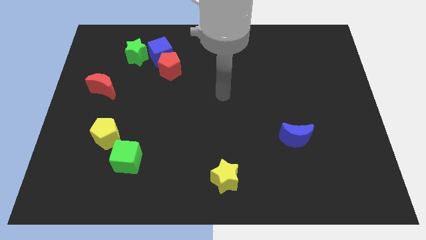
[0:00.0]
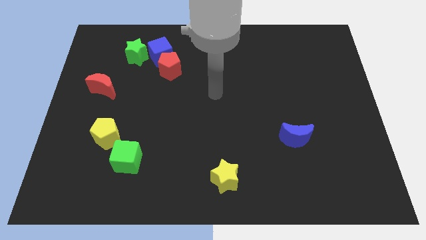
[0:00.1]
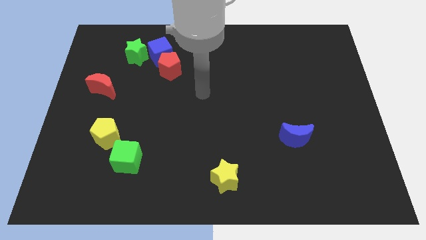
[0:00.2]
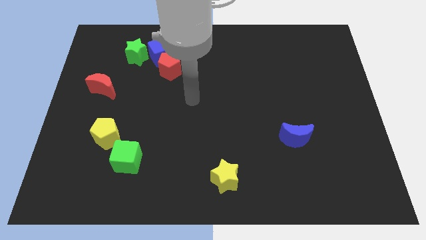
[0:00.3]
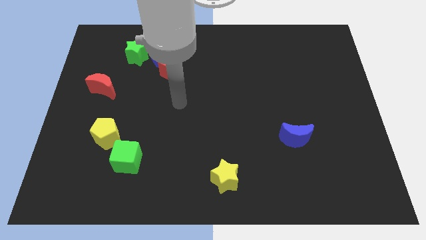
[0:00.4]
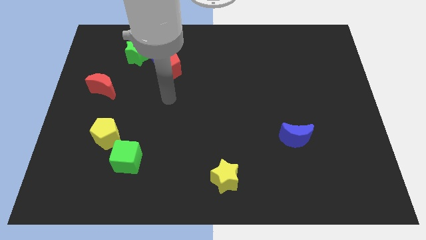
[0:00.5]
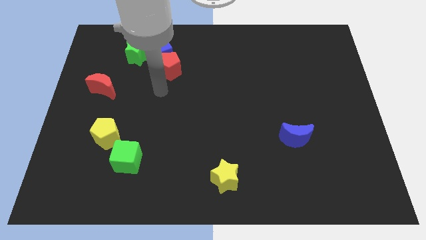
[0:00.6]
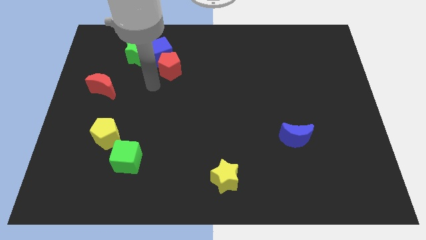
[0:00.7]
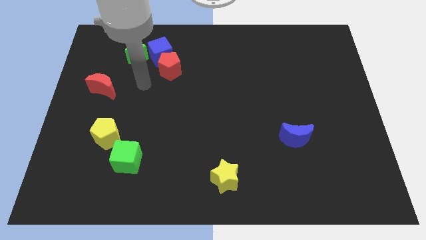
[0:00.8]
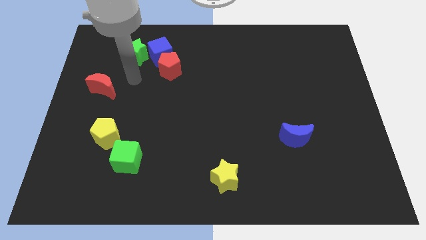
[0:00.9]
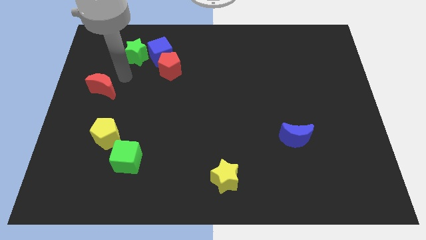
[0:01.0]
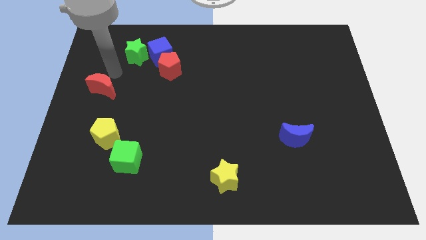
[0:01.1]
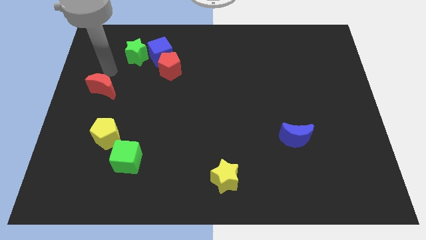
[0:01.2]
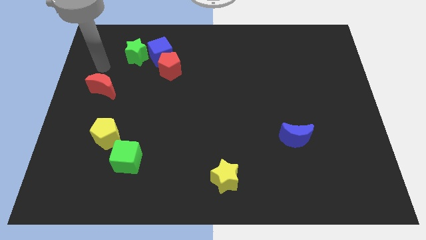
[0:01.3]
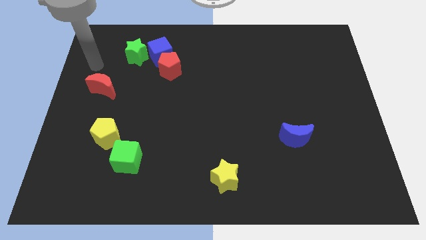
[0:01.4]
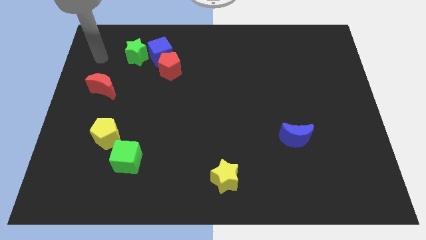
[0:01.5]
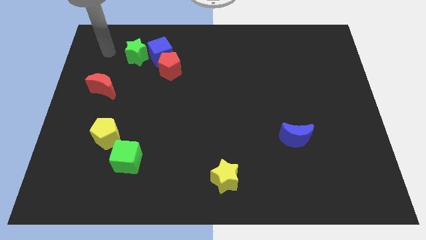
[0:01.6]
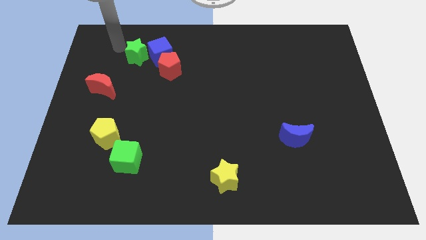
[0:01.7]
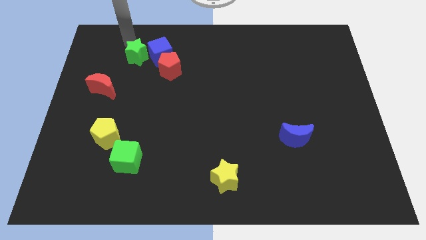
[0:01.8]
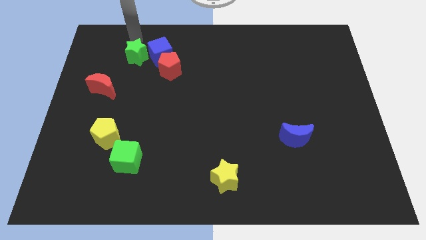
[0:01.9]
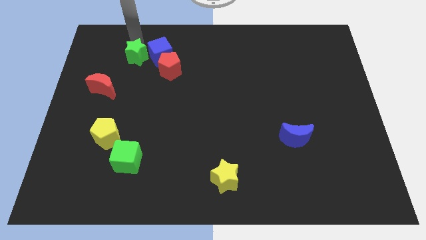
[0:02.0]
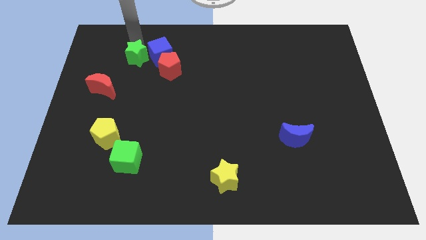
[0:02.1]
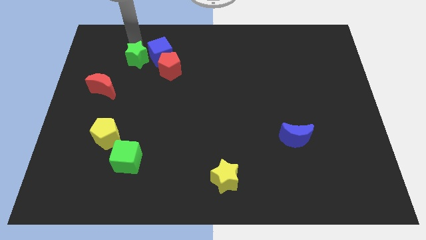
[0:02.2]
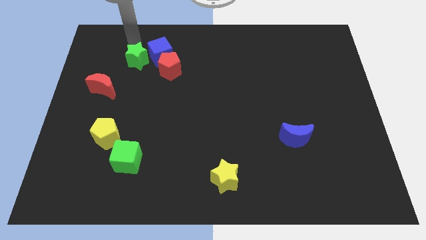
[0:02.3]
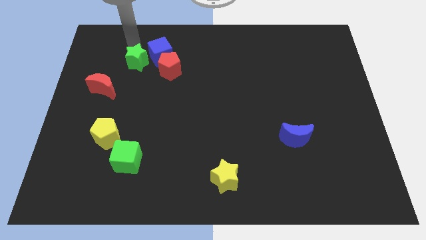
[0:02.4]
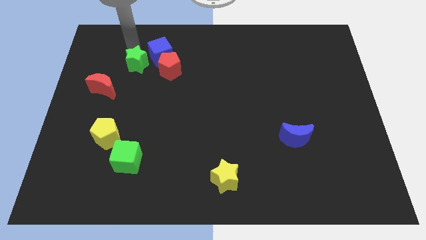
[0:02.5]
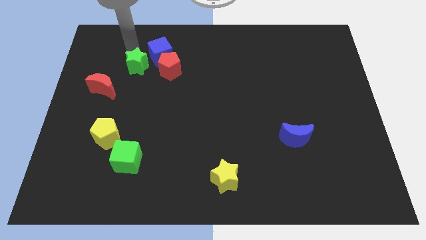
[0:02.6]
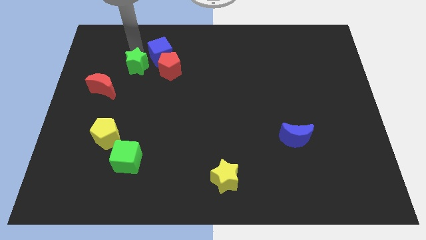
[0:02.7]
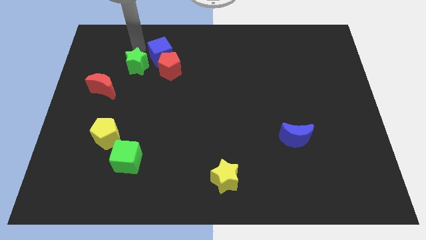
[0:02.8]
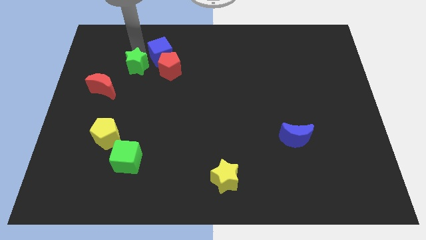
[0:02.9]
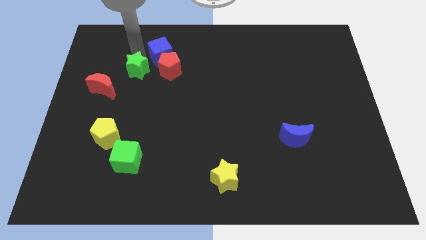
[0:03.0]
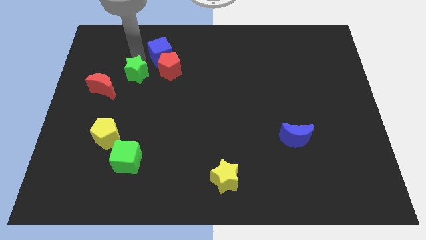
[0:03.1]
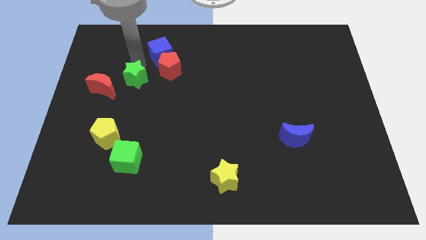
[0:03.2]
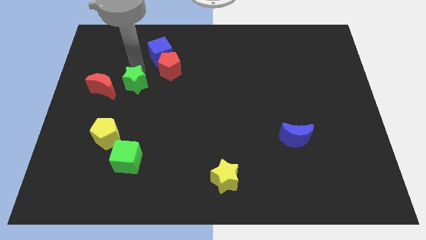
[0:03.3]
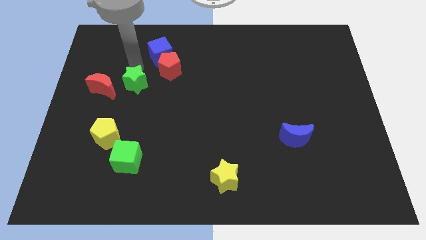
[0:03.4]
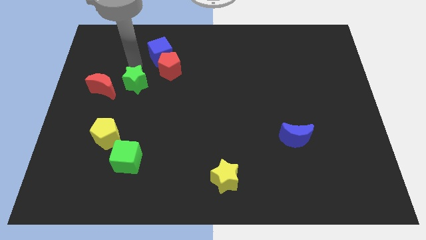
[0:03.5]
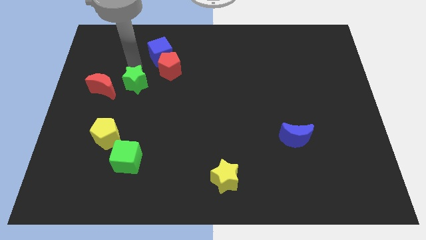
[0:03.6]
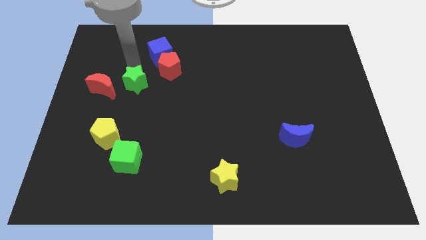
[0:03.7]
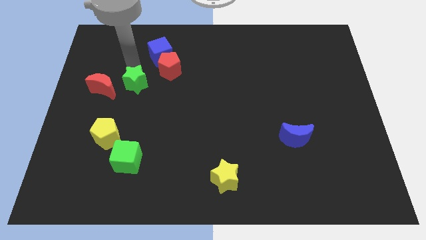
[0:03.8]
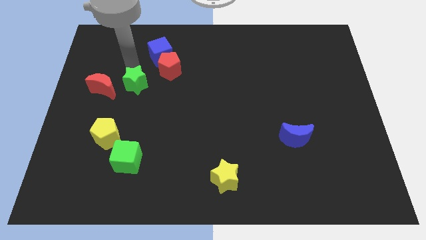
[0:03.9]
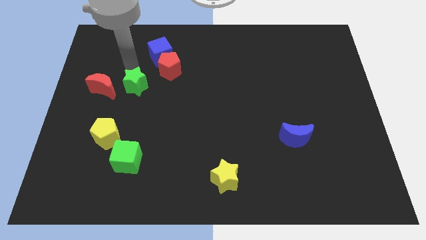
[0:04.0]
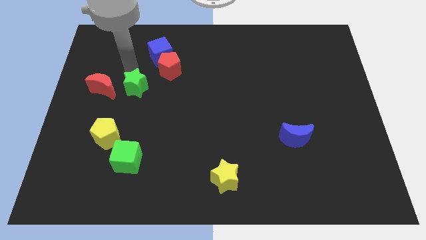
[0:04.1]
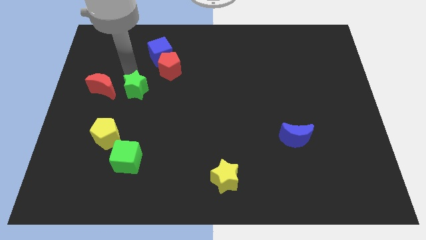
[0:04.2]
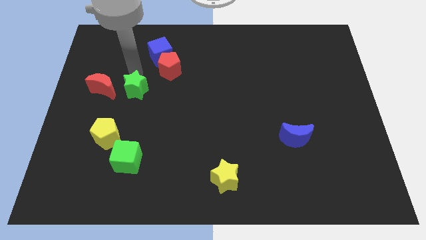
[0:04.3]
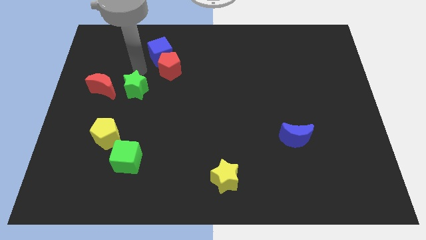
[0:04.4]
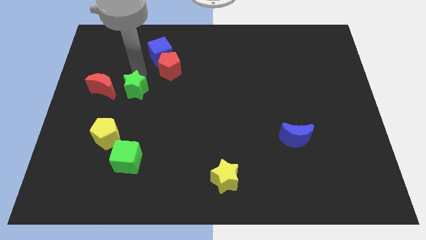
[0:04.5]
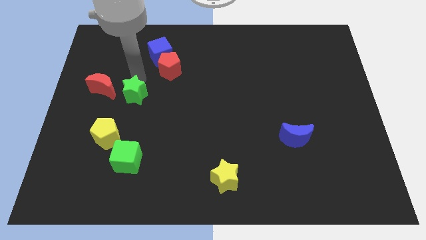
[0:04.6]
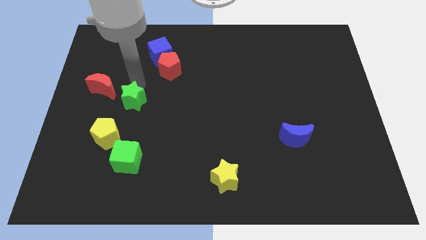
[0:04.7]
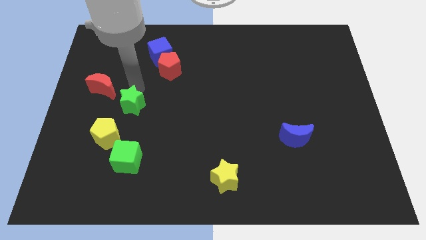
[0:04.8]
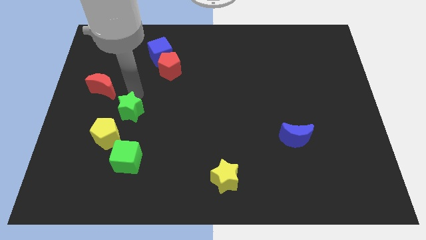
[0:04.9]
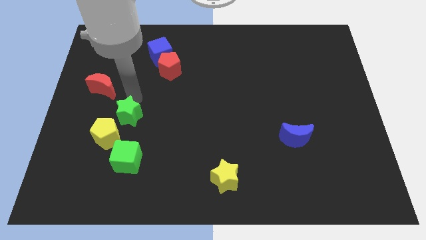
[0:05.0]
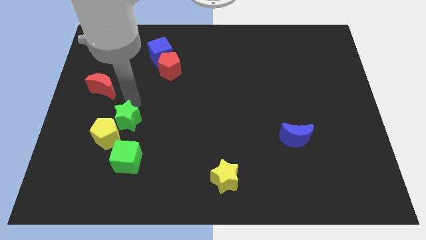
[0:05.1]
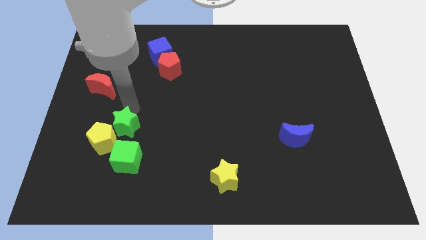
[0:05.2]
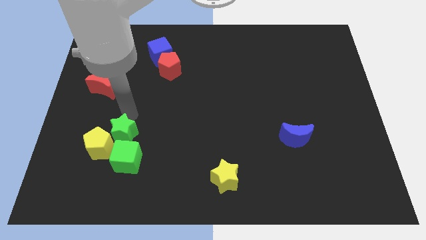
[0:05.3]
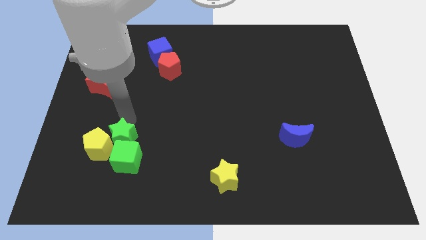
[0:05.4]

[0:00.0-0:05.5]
put the green star next to the green cube

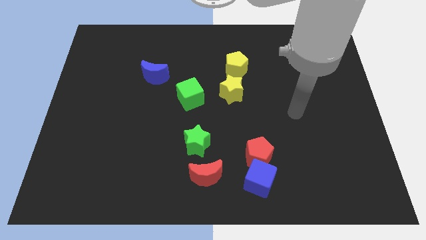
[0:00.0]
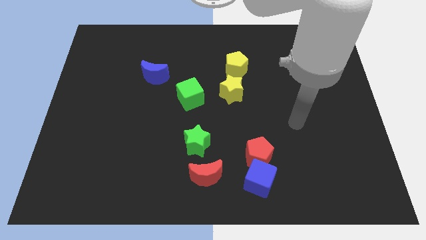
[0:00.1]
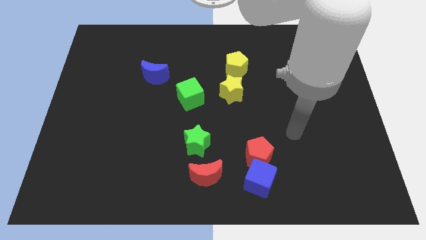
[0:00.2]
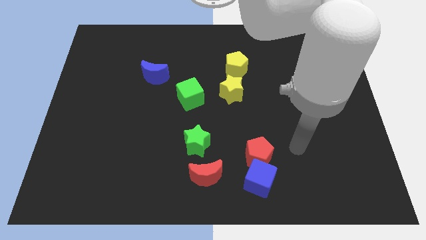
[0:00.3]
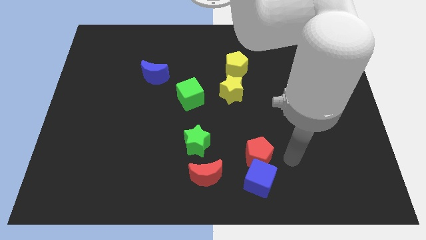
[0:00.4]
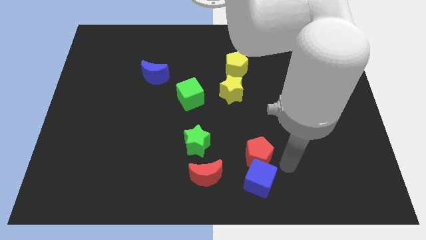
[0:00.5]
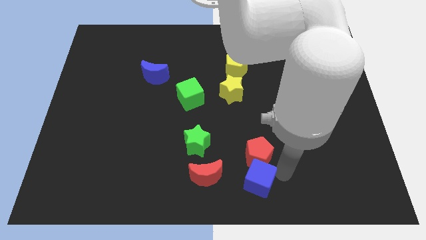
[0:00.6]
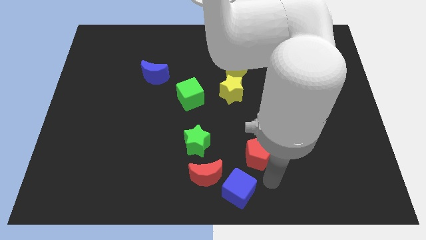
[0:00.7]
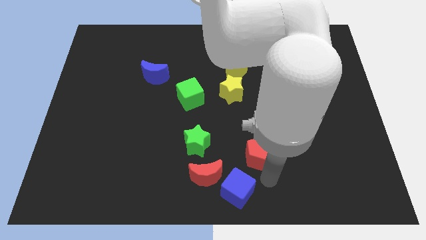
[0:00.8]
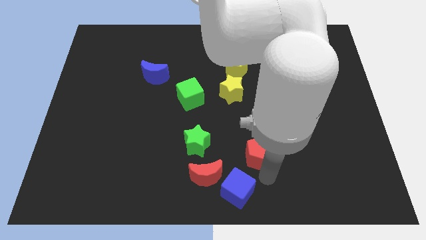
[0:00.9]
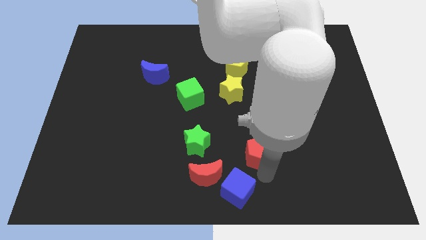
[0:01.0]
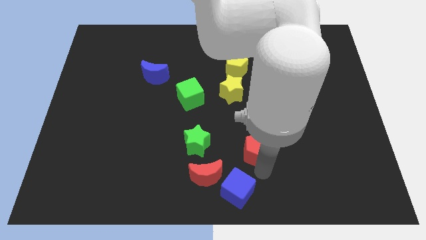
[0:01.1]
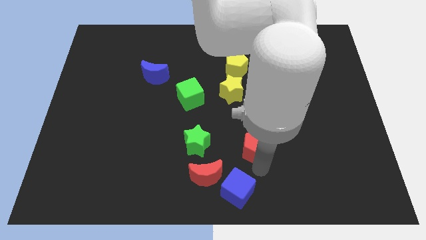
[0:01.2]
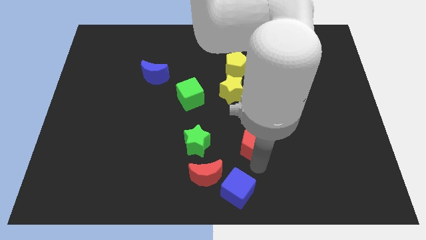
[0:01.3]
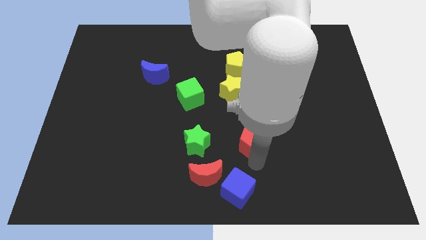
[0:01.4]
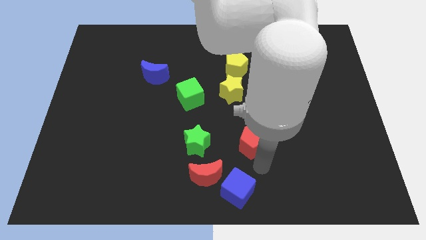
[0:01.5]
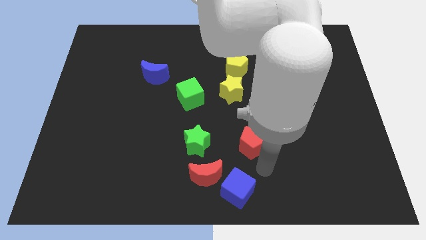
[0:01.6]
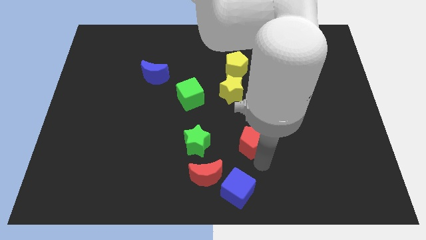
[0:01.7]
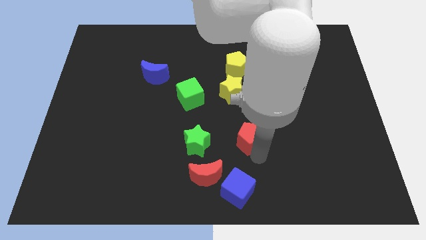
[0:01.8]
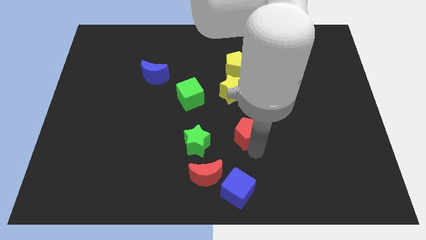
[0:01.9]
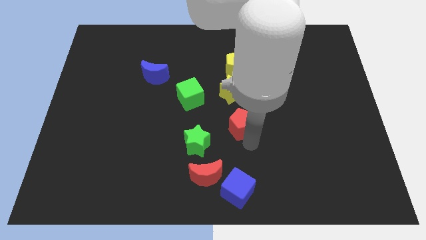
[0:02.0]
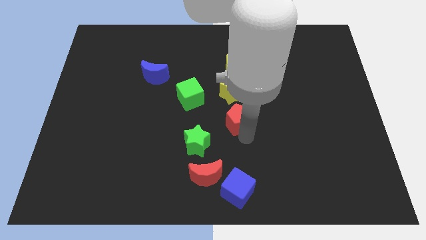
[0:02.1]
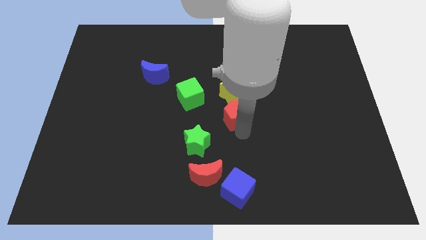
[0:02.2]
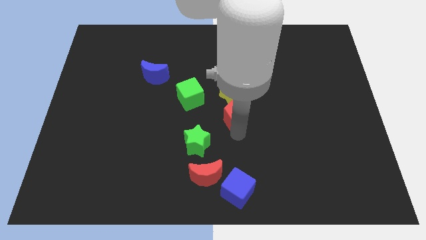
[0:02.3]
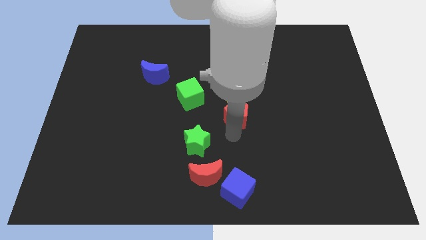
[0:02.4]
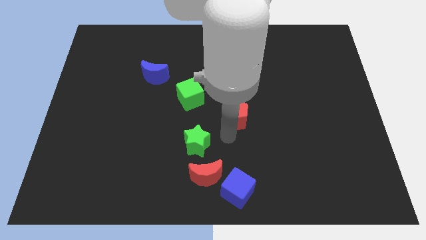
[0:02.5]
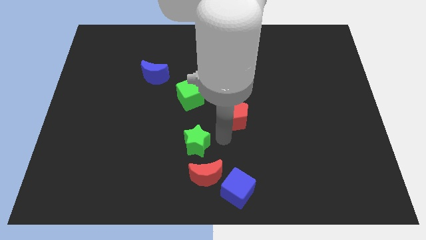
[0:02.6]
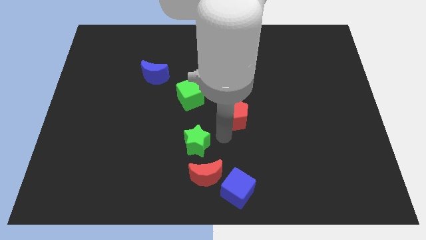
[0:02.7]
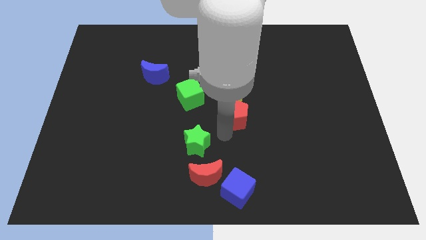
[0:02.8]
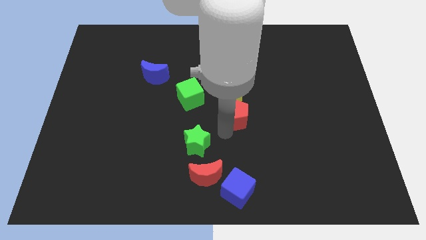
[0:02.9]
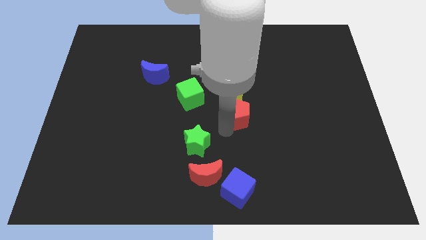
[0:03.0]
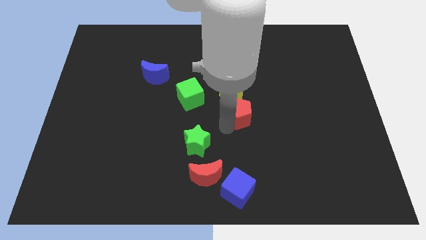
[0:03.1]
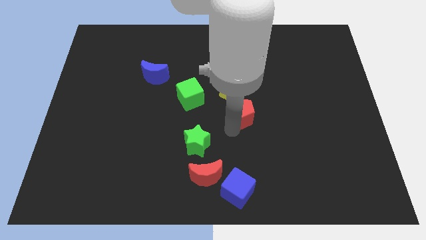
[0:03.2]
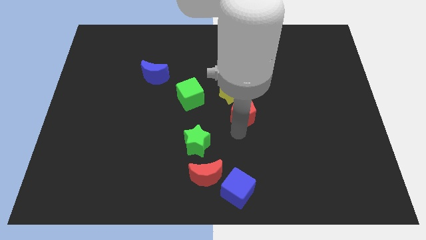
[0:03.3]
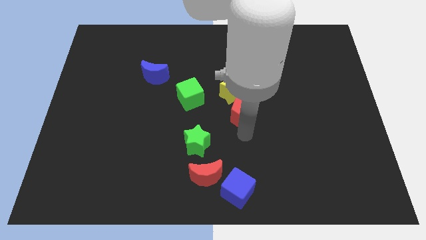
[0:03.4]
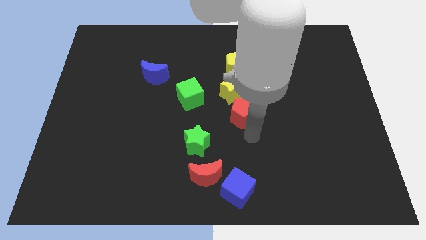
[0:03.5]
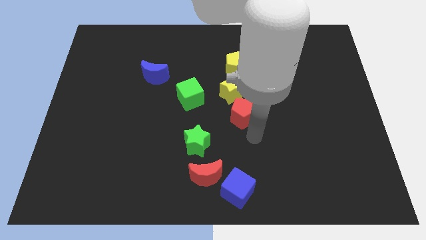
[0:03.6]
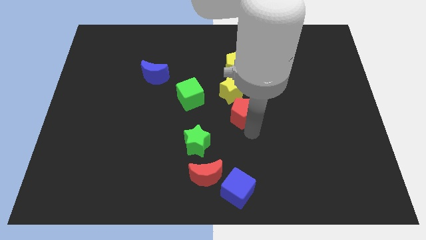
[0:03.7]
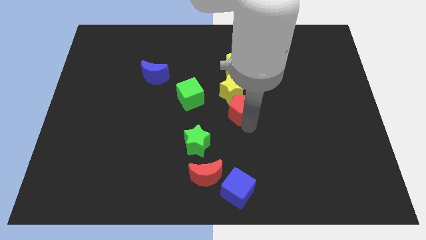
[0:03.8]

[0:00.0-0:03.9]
put the red pentagon next to the yellow star
